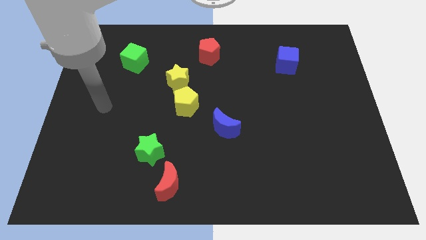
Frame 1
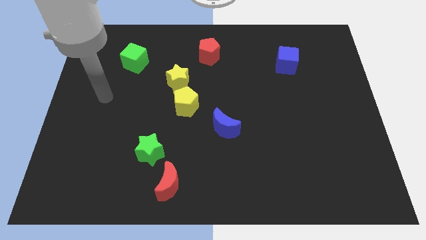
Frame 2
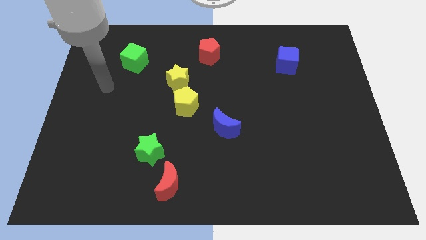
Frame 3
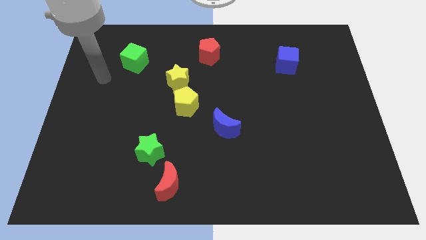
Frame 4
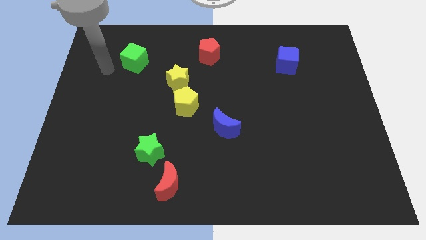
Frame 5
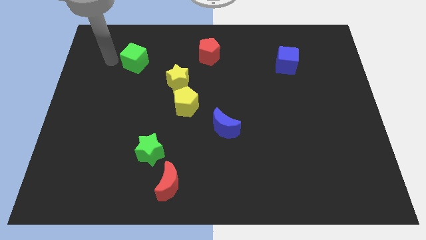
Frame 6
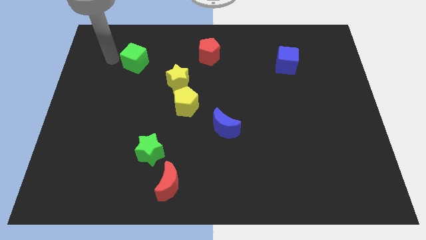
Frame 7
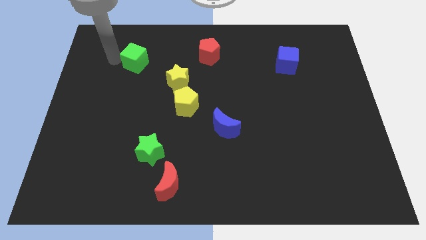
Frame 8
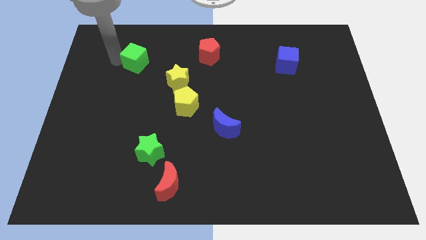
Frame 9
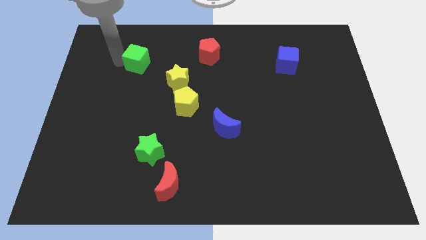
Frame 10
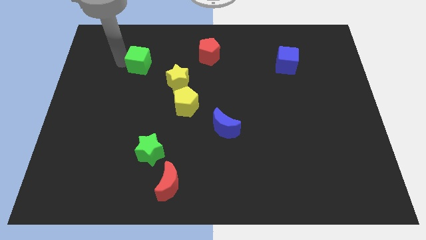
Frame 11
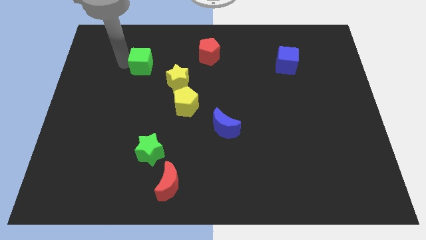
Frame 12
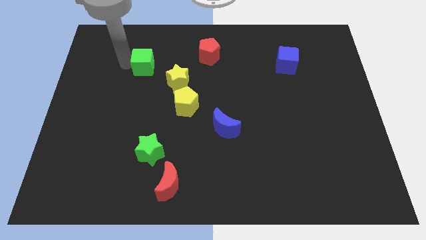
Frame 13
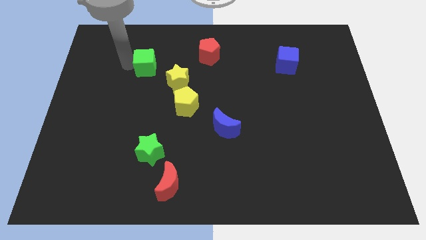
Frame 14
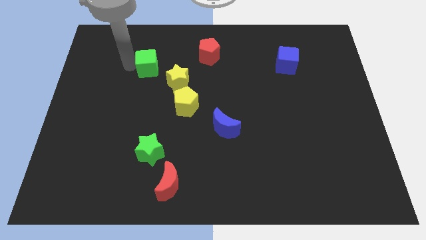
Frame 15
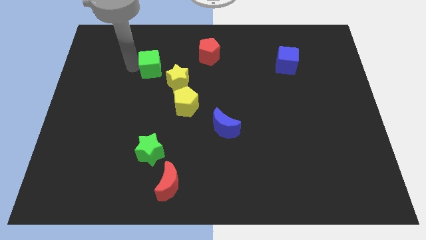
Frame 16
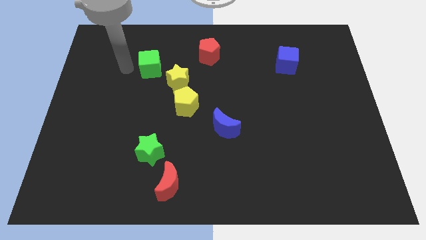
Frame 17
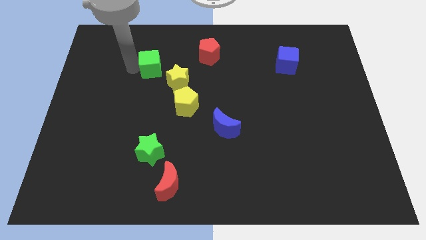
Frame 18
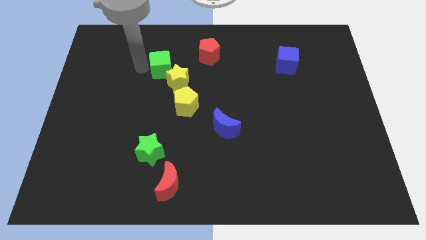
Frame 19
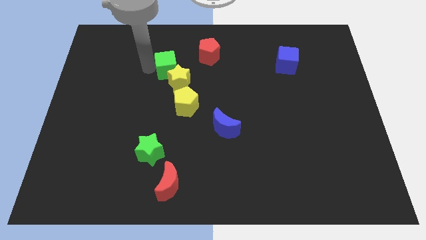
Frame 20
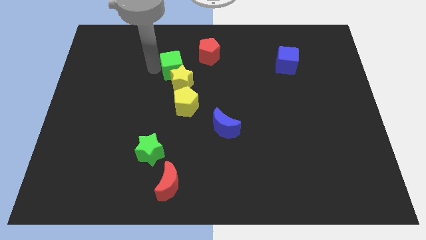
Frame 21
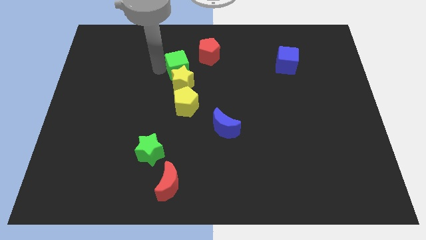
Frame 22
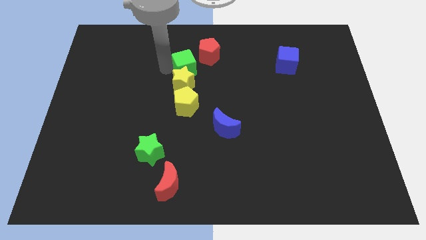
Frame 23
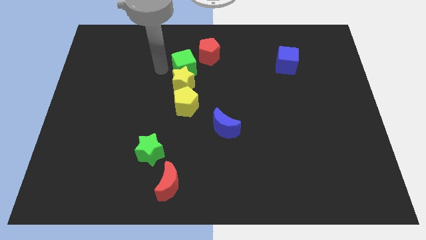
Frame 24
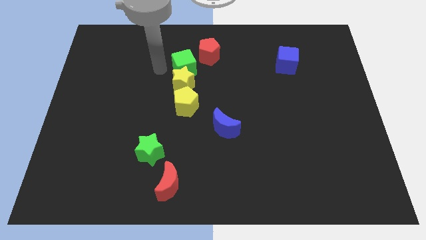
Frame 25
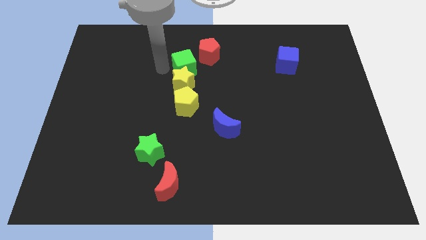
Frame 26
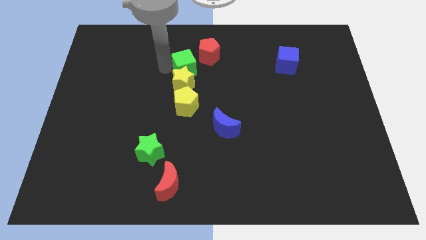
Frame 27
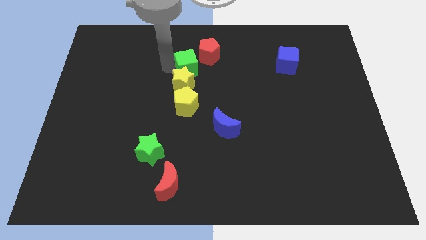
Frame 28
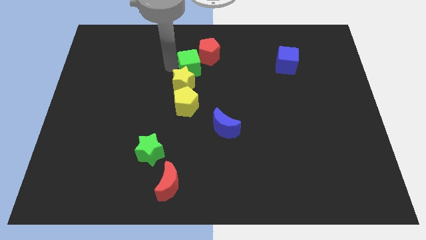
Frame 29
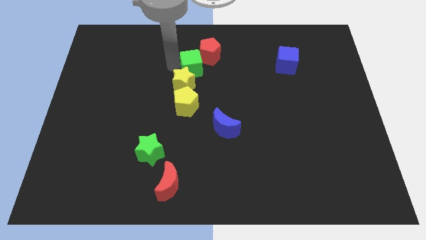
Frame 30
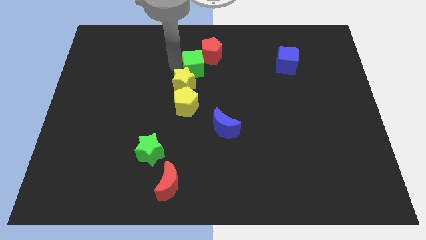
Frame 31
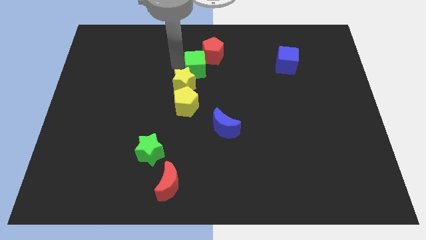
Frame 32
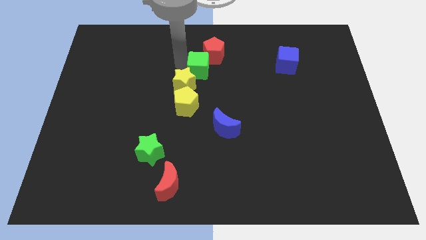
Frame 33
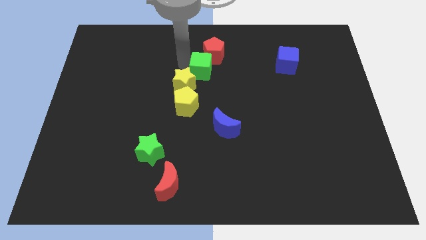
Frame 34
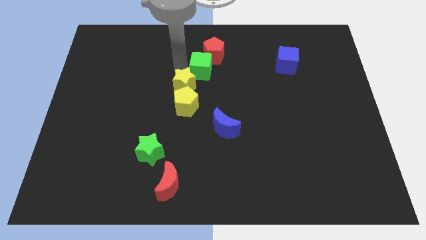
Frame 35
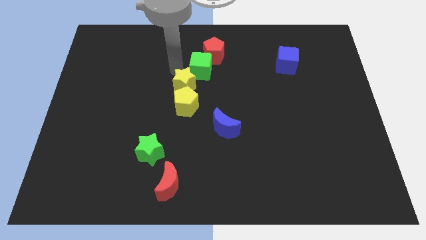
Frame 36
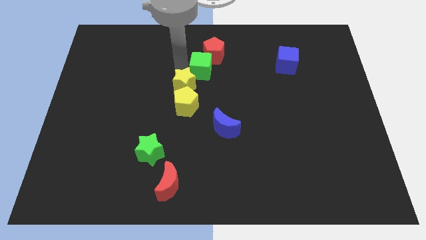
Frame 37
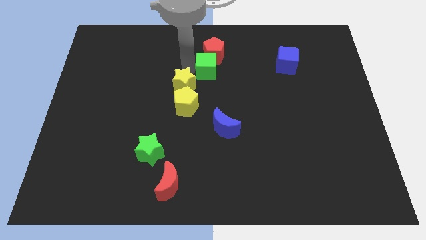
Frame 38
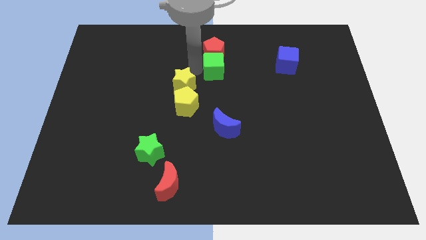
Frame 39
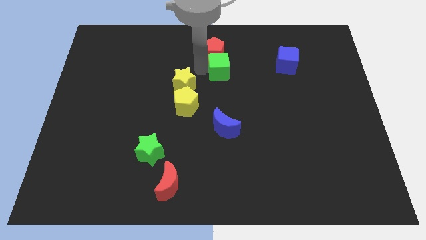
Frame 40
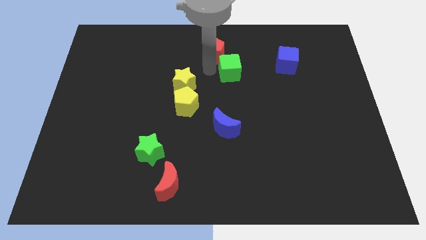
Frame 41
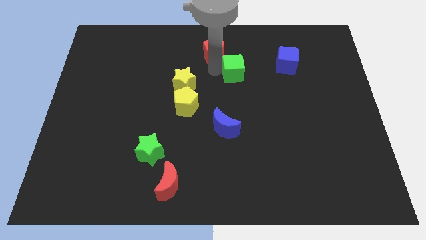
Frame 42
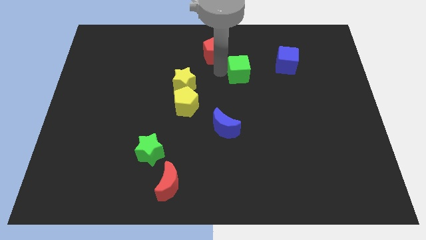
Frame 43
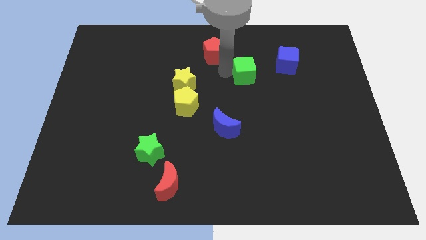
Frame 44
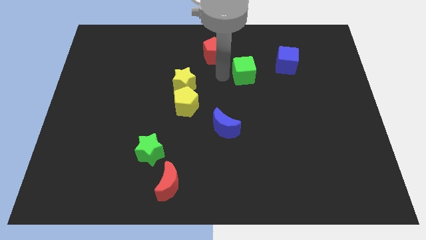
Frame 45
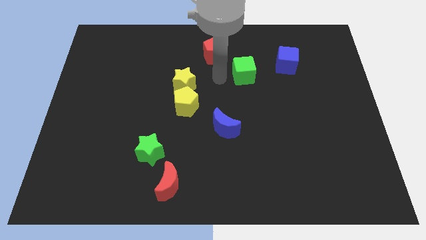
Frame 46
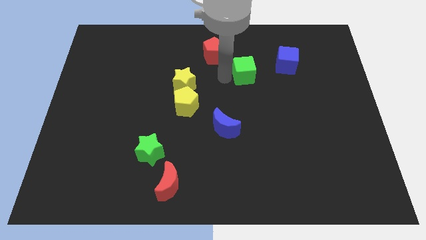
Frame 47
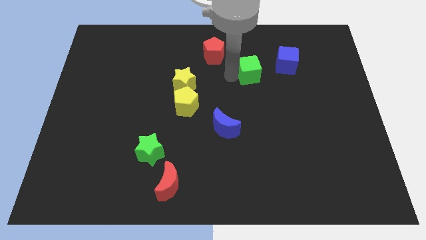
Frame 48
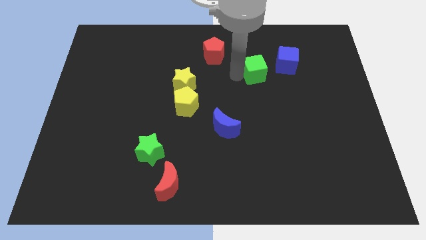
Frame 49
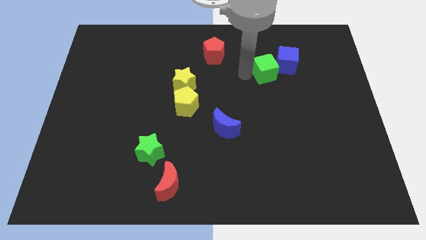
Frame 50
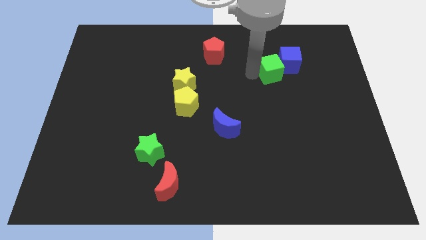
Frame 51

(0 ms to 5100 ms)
push the green cube to the blue cube

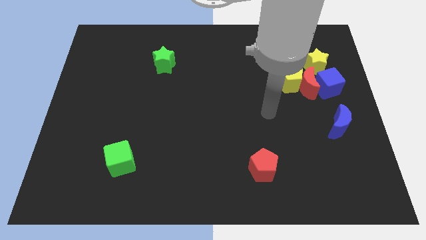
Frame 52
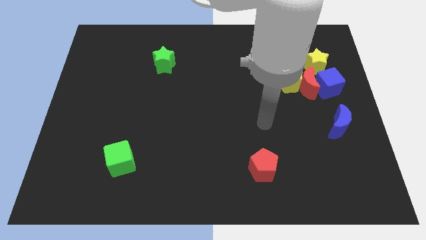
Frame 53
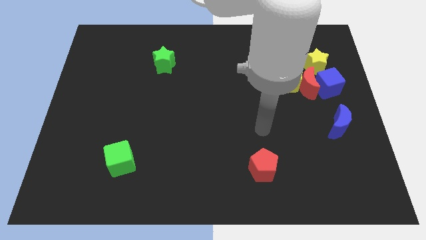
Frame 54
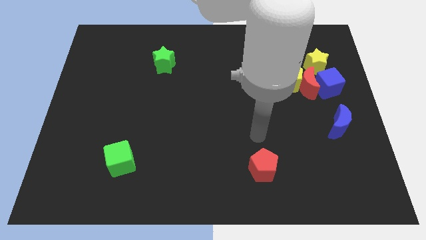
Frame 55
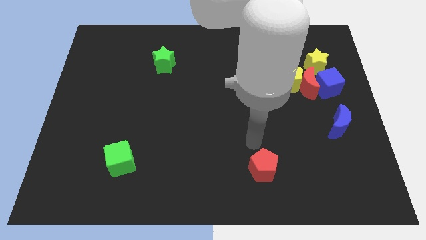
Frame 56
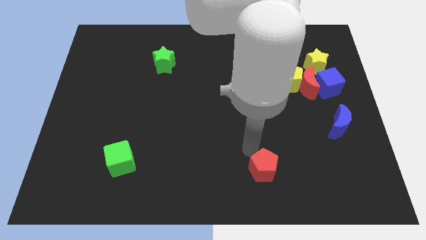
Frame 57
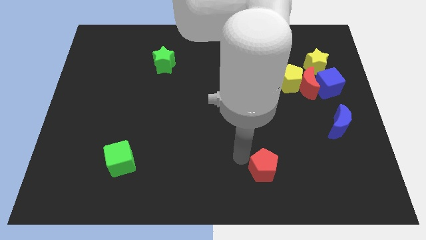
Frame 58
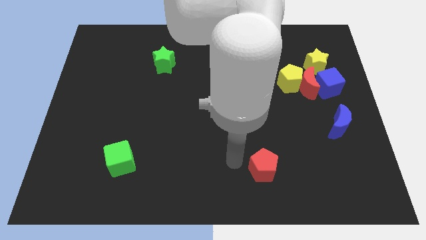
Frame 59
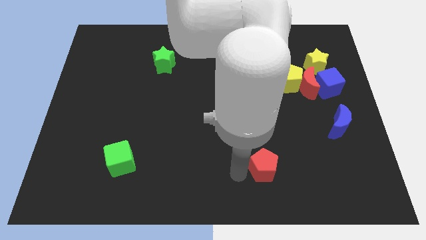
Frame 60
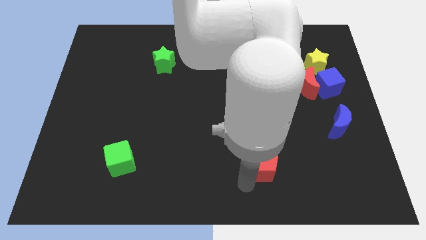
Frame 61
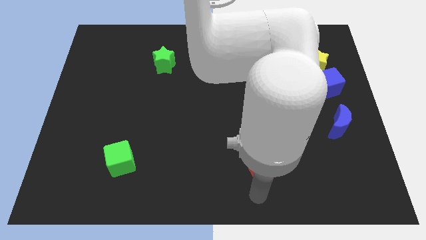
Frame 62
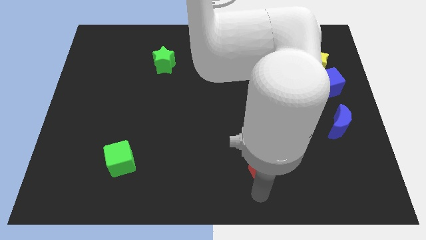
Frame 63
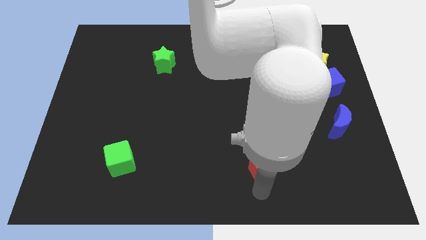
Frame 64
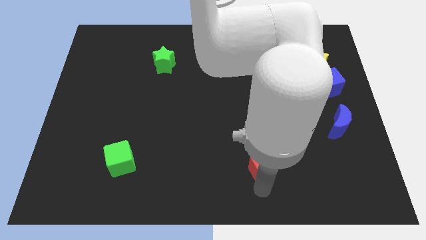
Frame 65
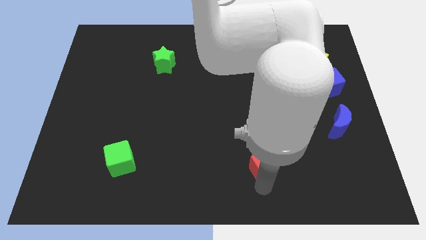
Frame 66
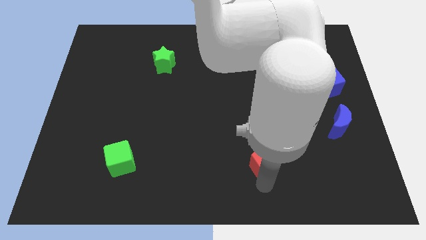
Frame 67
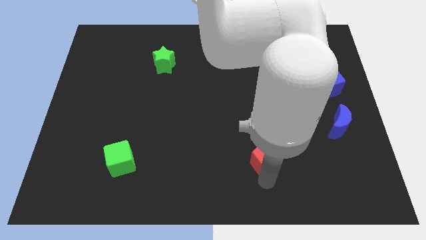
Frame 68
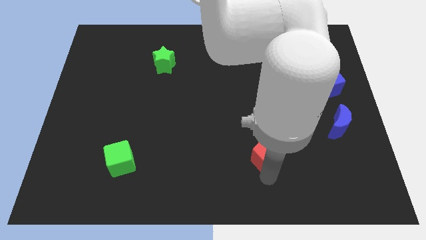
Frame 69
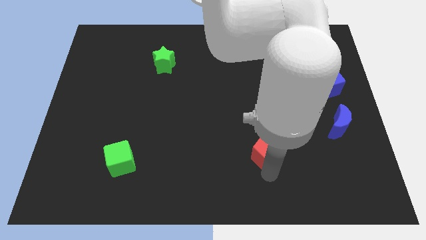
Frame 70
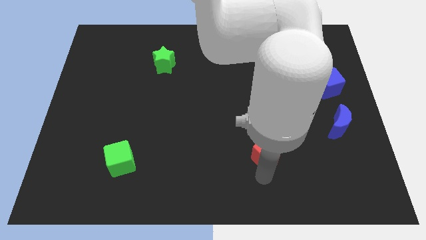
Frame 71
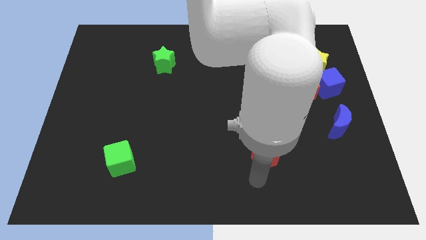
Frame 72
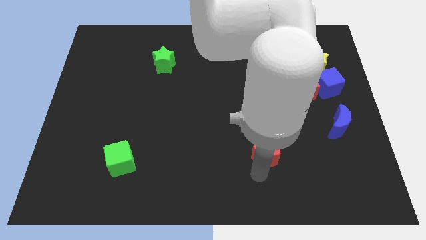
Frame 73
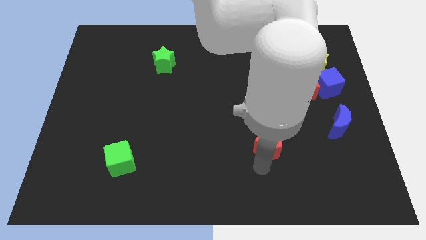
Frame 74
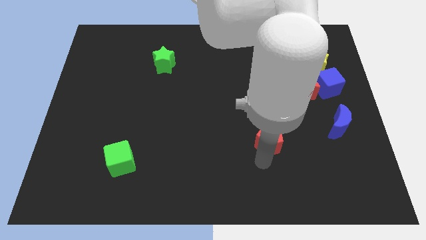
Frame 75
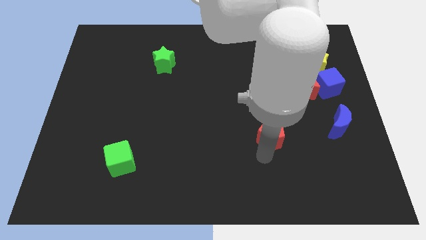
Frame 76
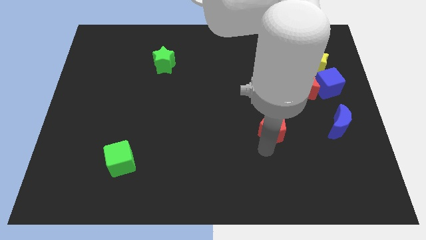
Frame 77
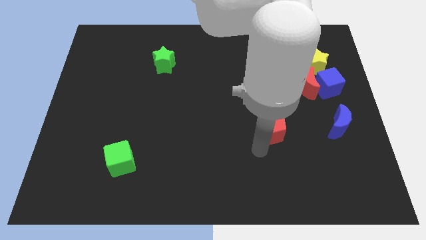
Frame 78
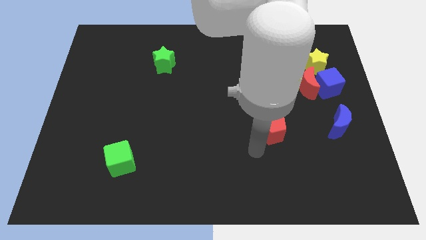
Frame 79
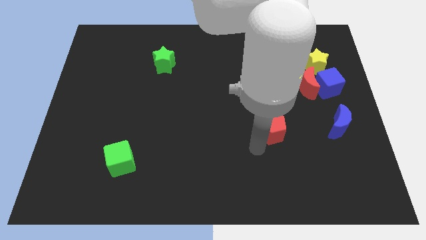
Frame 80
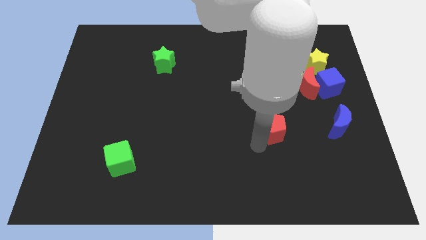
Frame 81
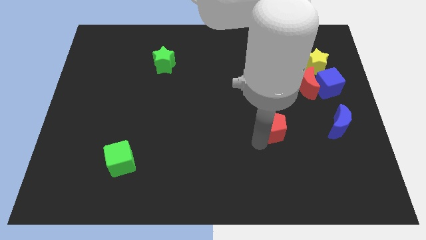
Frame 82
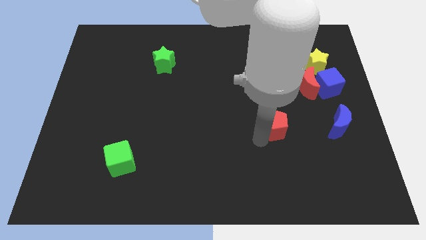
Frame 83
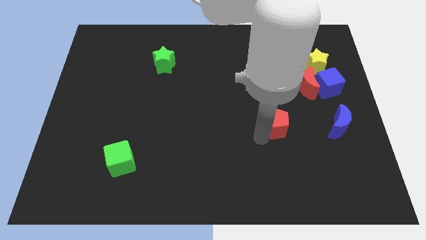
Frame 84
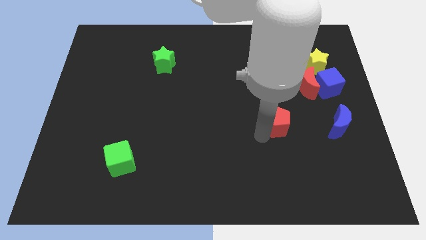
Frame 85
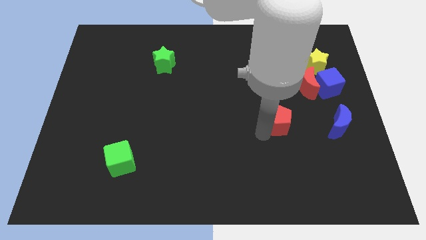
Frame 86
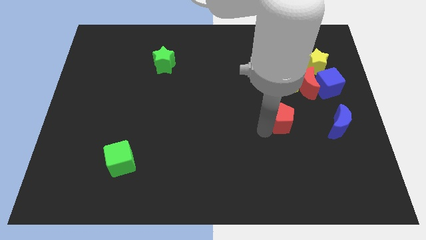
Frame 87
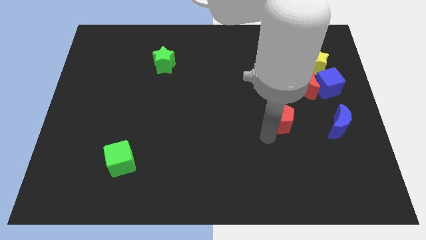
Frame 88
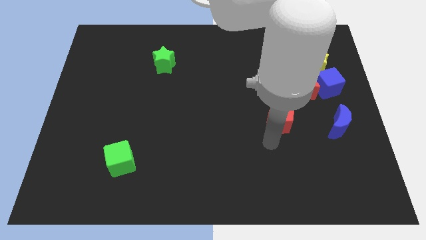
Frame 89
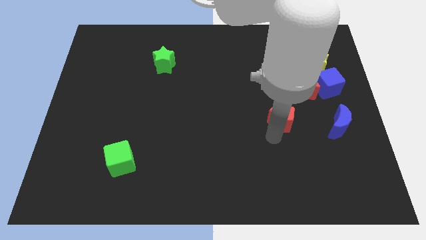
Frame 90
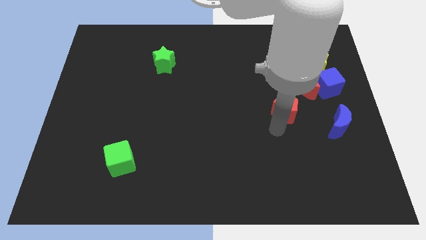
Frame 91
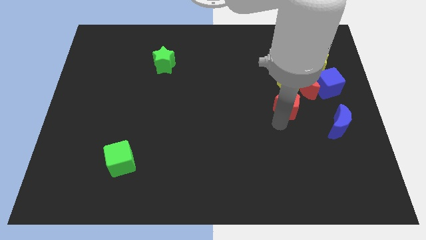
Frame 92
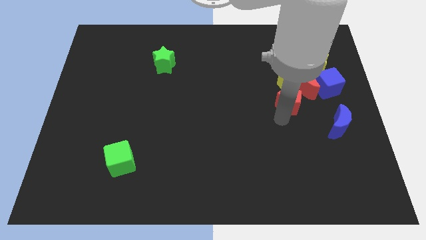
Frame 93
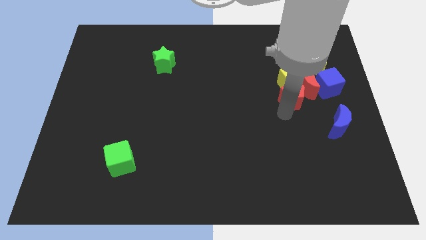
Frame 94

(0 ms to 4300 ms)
slide the red pentagon close to the yellow pentagon
